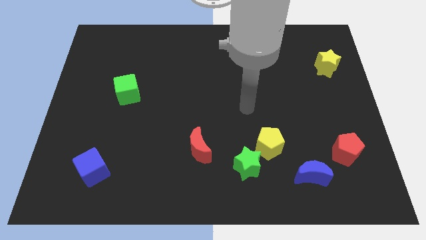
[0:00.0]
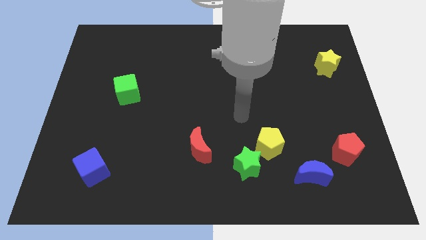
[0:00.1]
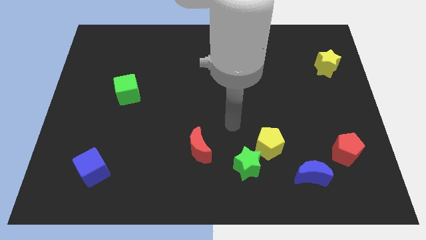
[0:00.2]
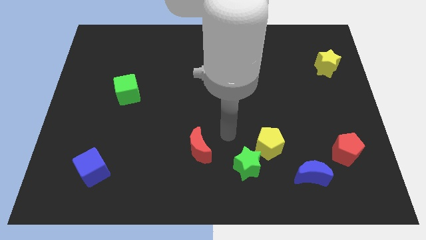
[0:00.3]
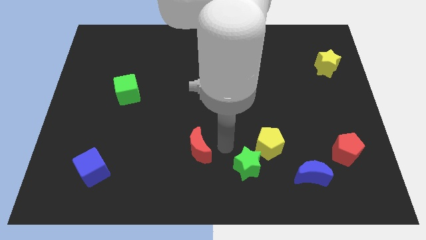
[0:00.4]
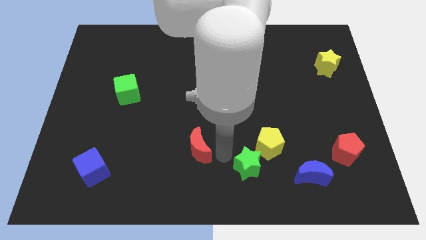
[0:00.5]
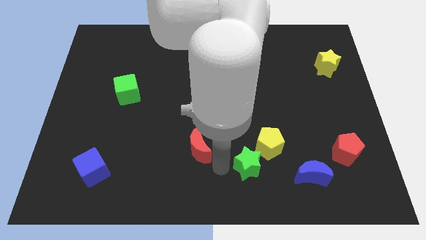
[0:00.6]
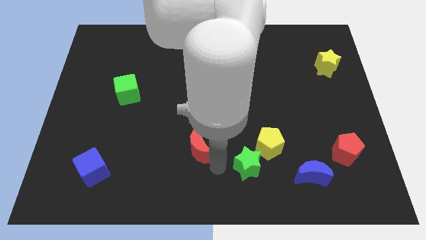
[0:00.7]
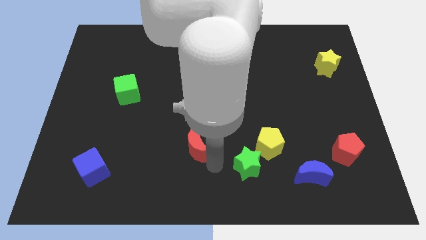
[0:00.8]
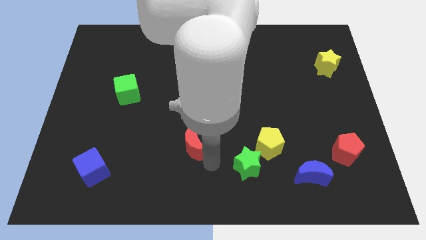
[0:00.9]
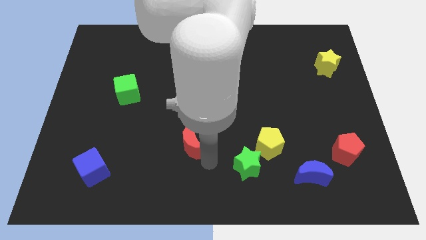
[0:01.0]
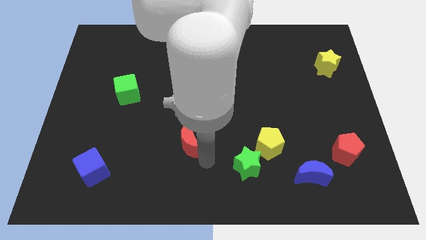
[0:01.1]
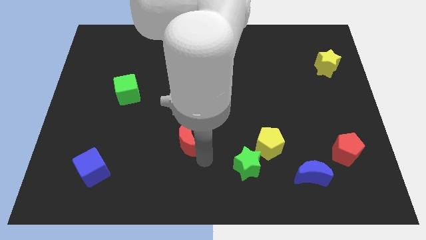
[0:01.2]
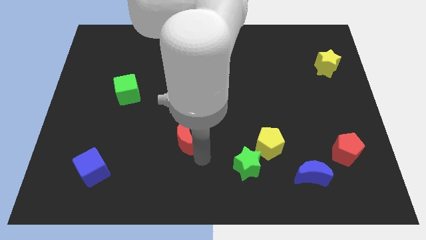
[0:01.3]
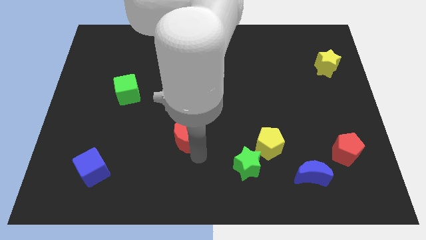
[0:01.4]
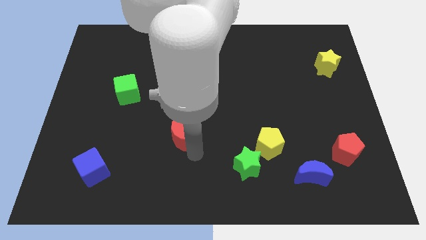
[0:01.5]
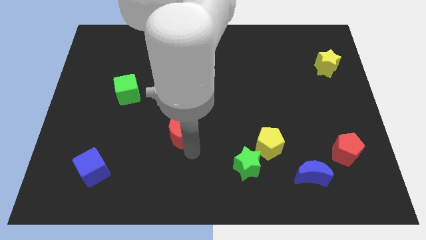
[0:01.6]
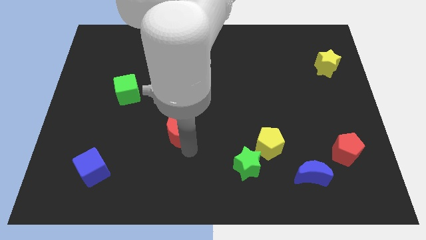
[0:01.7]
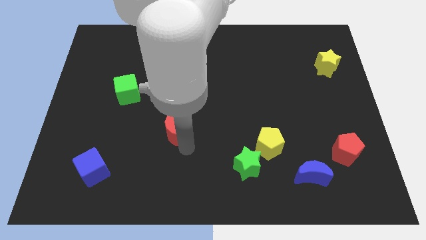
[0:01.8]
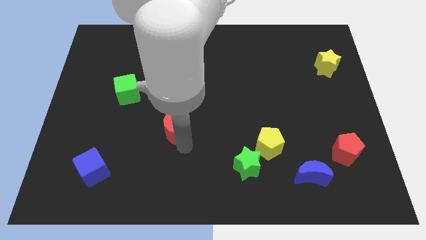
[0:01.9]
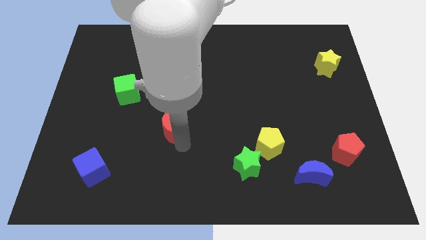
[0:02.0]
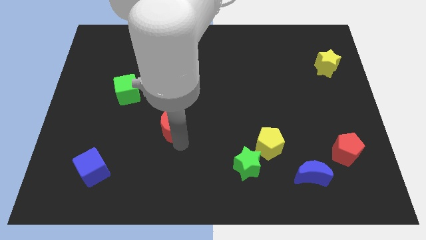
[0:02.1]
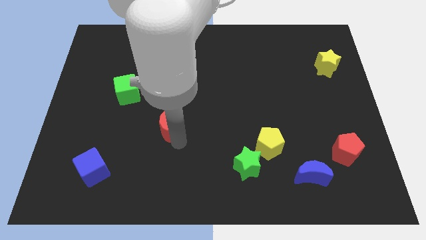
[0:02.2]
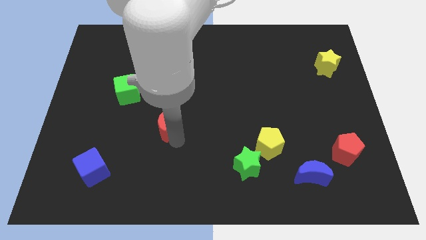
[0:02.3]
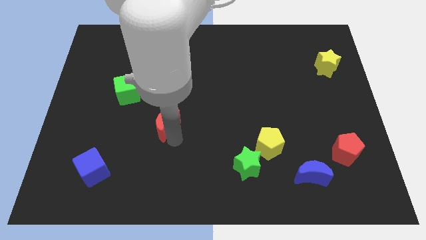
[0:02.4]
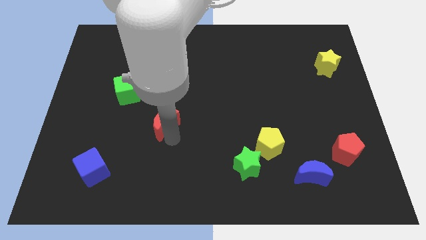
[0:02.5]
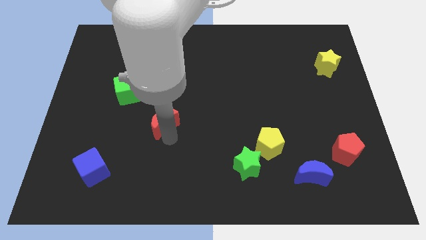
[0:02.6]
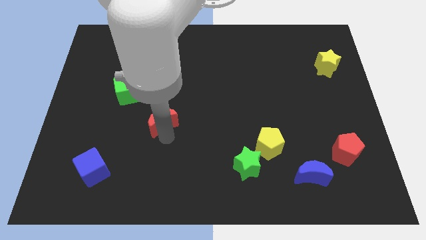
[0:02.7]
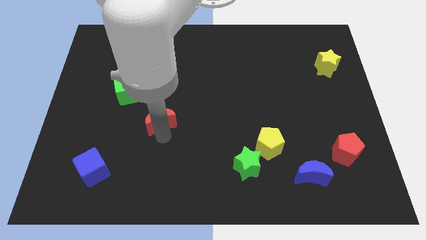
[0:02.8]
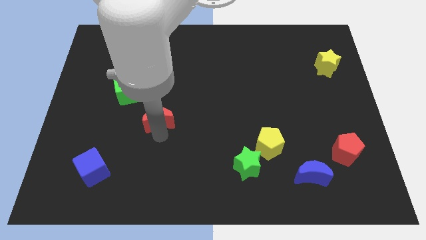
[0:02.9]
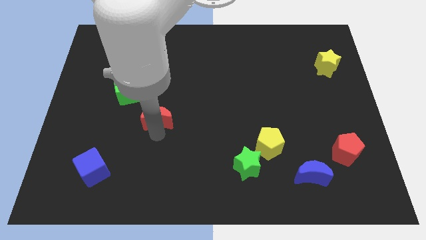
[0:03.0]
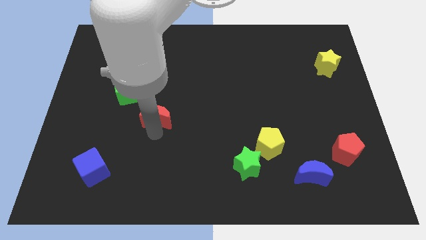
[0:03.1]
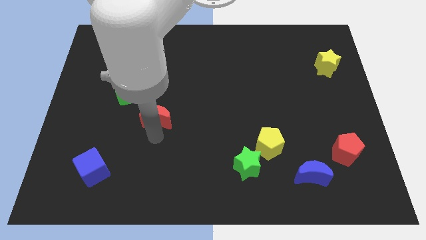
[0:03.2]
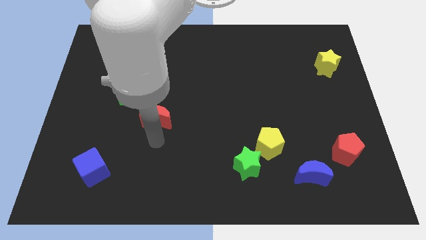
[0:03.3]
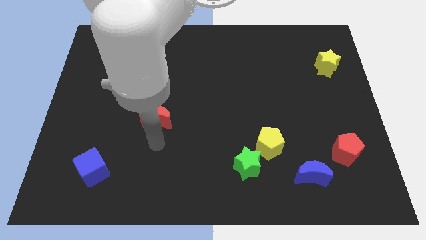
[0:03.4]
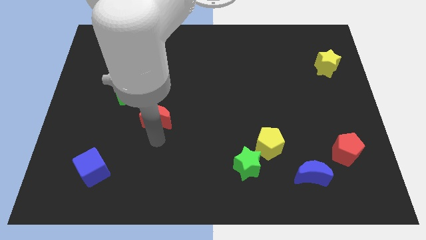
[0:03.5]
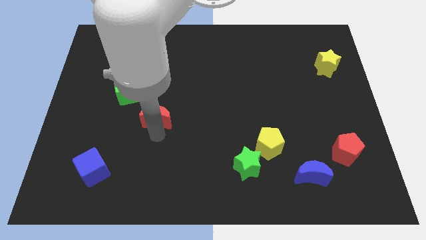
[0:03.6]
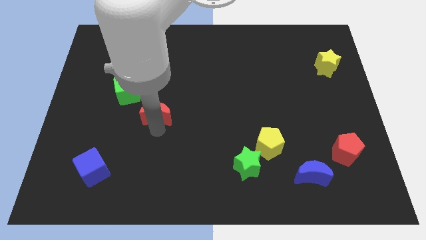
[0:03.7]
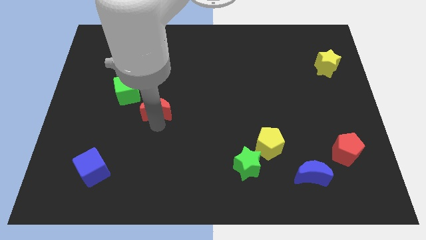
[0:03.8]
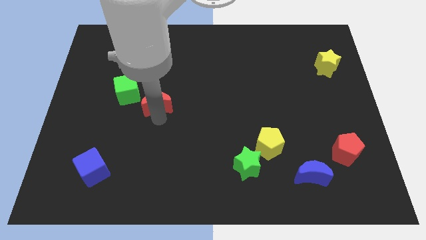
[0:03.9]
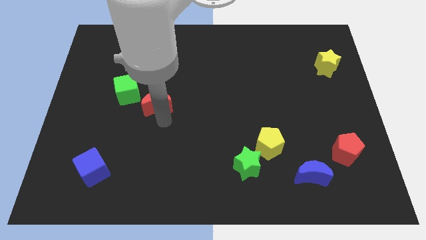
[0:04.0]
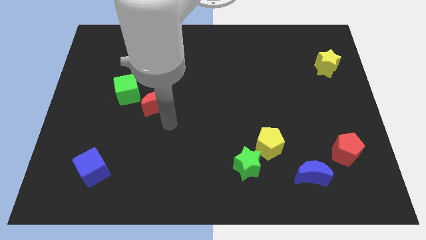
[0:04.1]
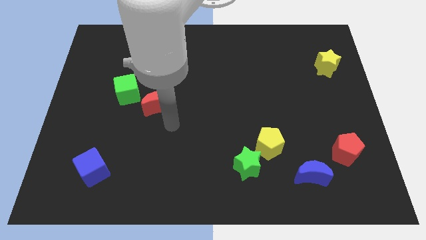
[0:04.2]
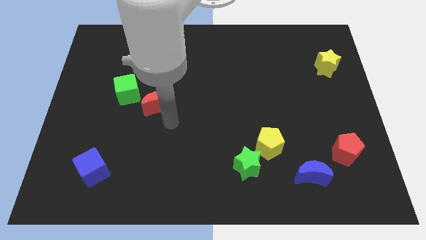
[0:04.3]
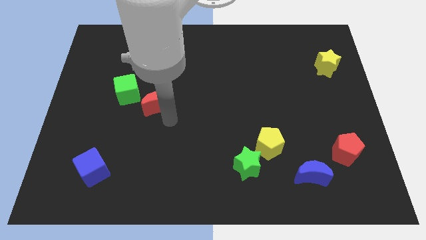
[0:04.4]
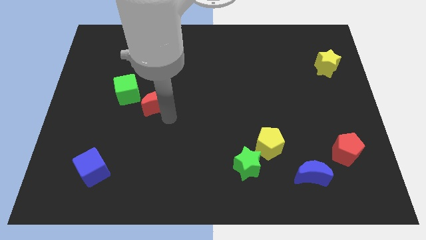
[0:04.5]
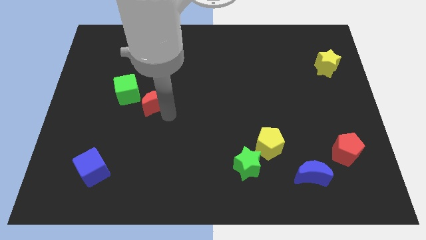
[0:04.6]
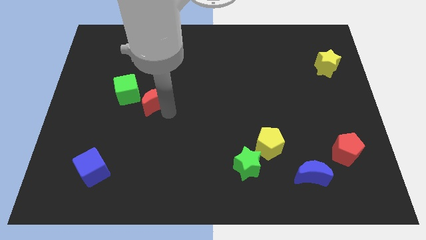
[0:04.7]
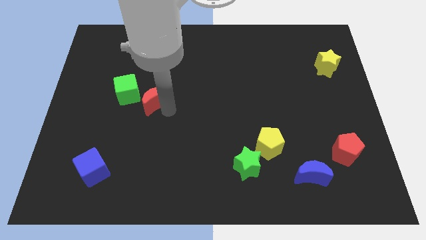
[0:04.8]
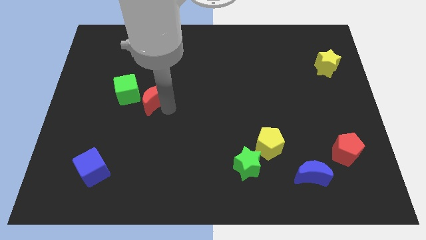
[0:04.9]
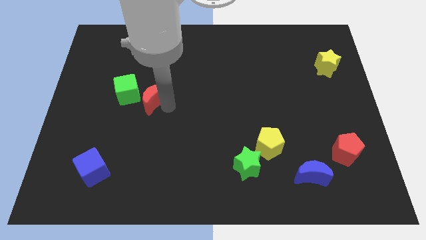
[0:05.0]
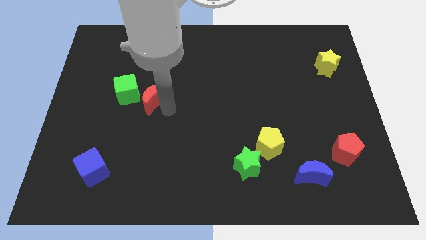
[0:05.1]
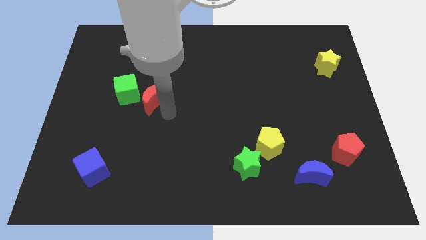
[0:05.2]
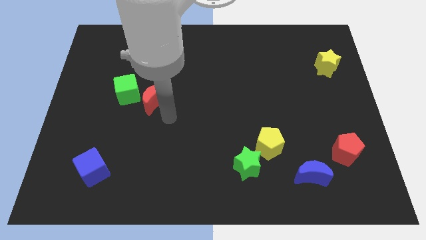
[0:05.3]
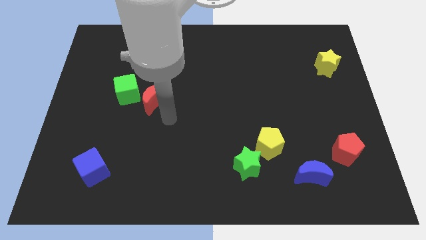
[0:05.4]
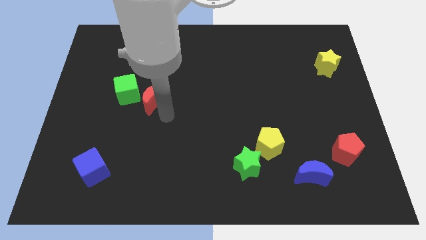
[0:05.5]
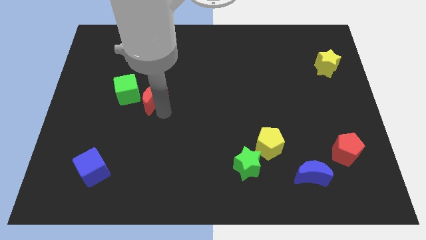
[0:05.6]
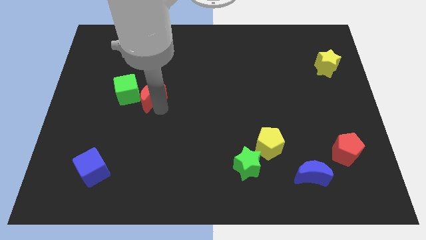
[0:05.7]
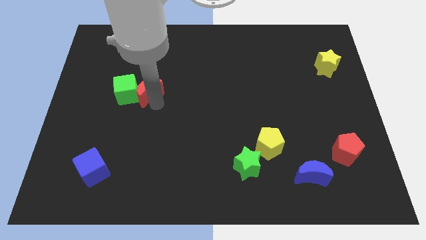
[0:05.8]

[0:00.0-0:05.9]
slide the red moon upwards and left

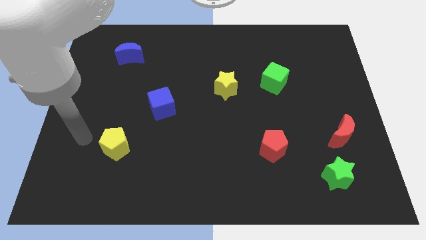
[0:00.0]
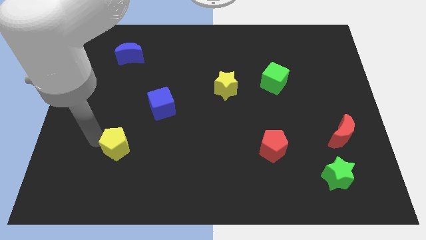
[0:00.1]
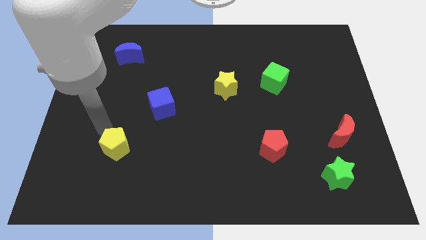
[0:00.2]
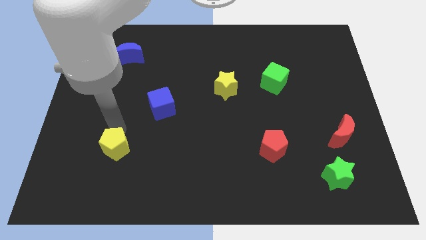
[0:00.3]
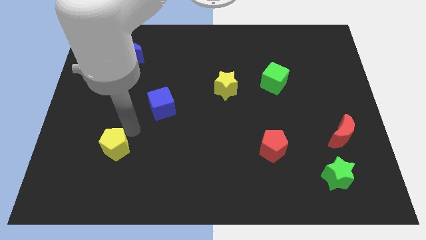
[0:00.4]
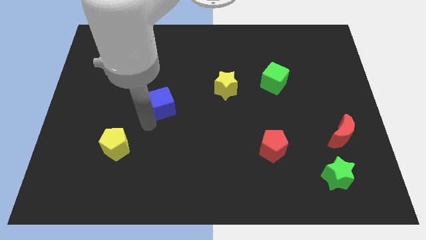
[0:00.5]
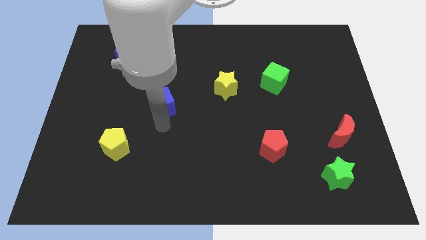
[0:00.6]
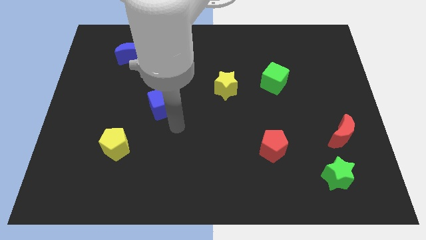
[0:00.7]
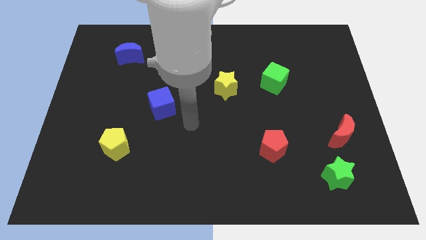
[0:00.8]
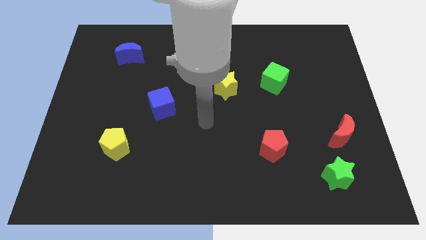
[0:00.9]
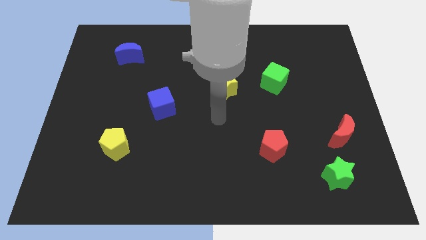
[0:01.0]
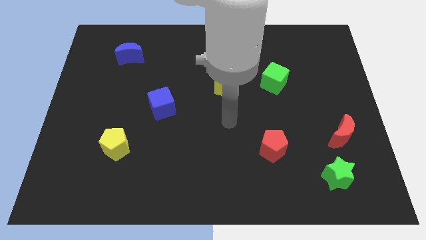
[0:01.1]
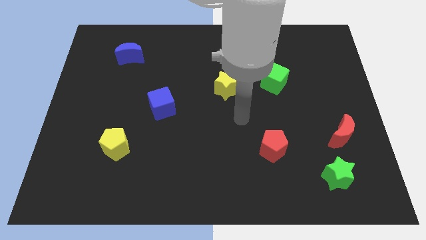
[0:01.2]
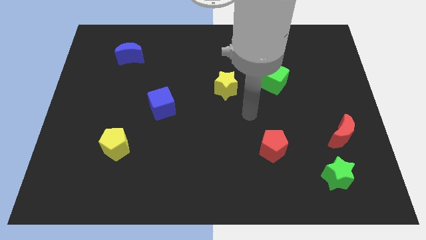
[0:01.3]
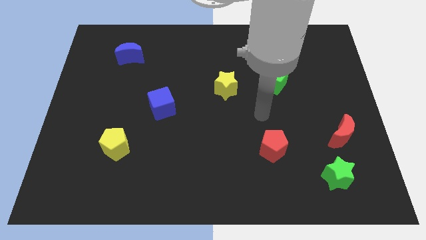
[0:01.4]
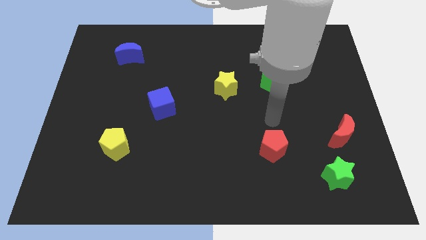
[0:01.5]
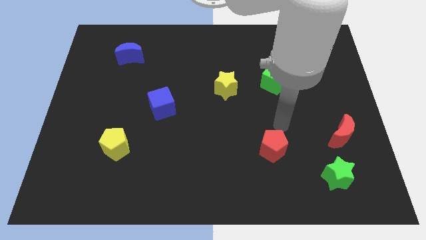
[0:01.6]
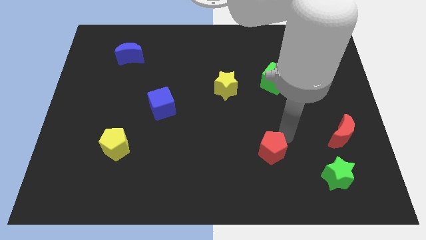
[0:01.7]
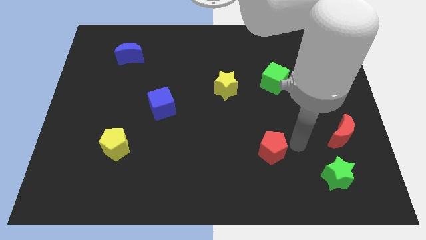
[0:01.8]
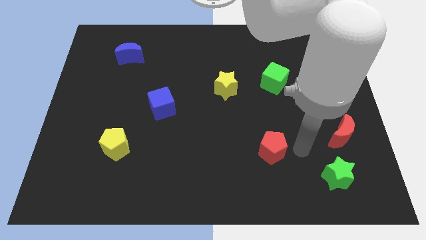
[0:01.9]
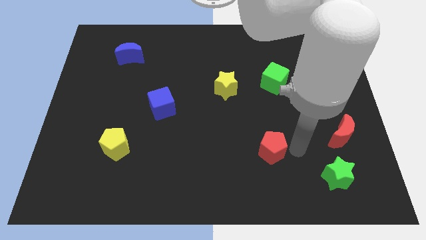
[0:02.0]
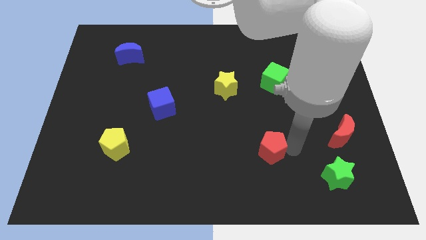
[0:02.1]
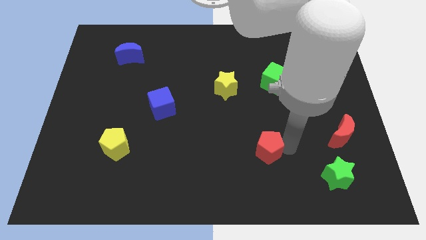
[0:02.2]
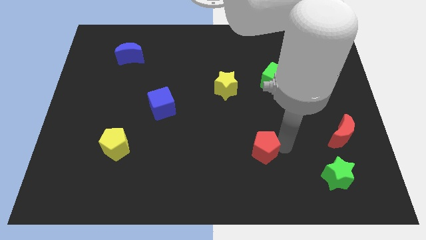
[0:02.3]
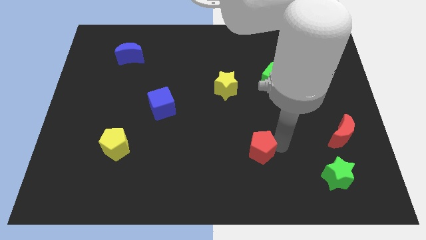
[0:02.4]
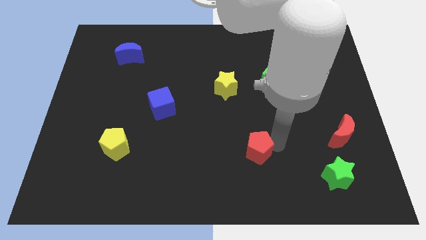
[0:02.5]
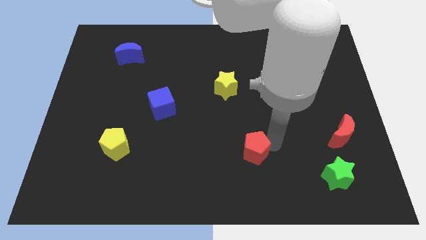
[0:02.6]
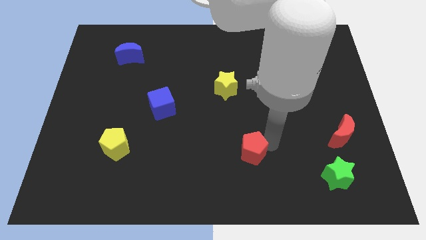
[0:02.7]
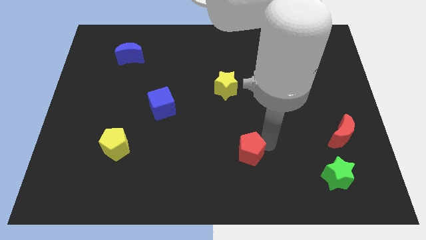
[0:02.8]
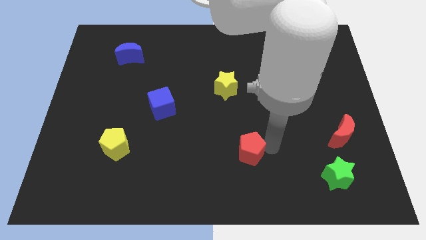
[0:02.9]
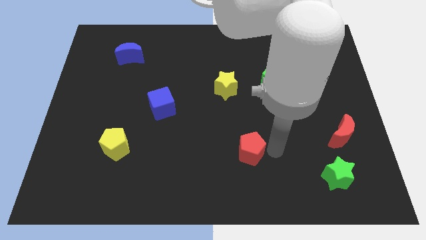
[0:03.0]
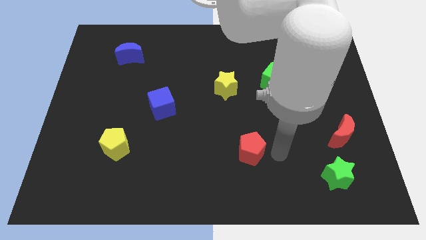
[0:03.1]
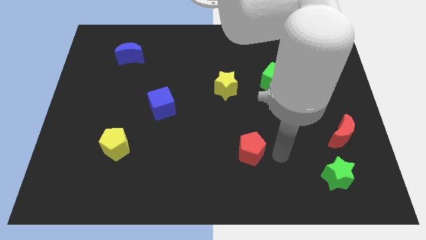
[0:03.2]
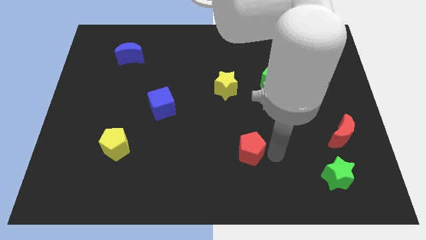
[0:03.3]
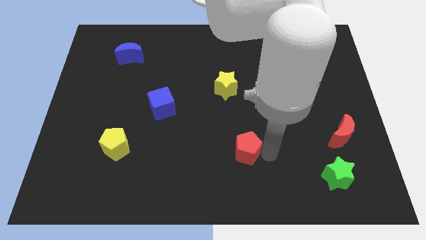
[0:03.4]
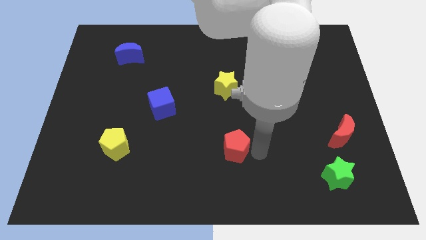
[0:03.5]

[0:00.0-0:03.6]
slightly move the red pentagon to the left
